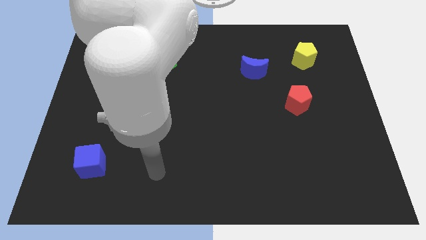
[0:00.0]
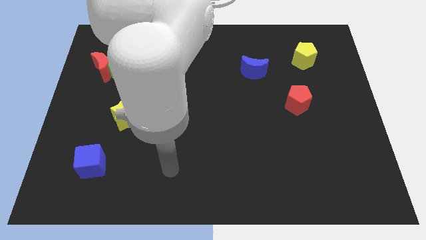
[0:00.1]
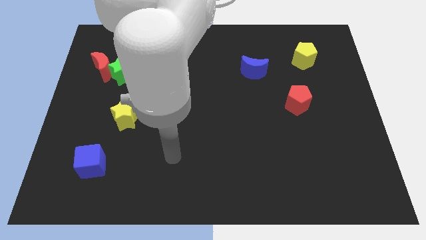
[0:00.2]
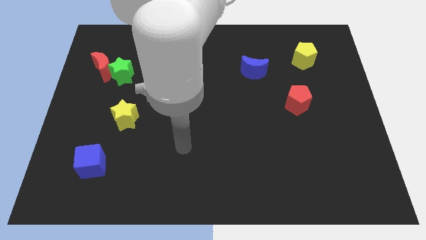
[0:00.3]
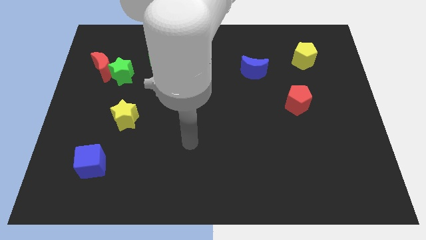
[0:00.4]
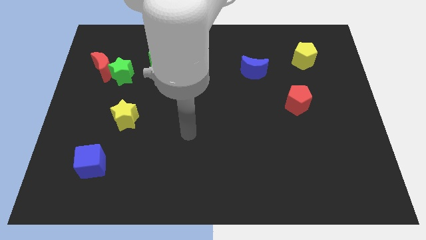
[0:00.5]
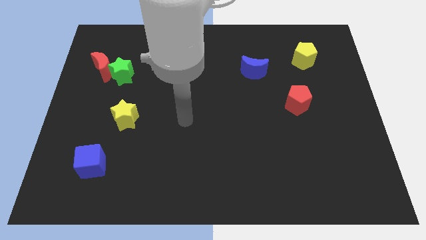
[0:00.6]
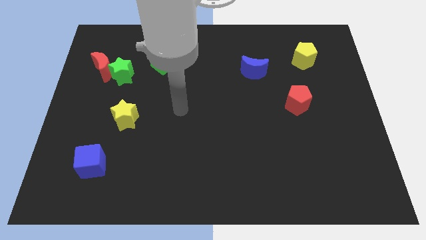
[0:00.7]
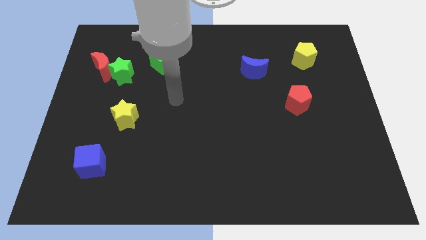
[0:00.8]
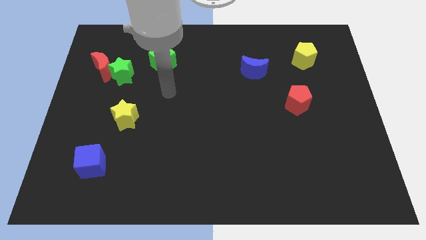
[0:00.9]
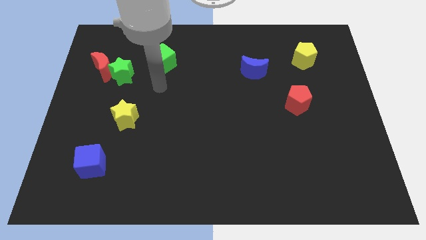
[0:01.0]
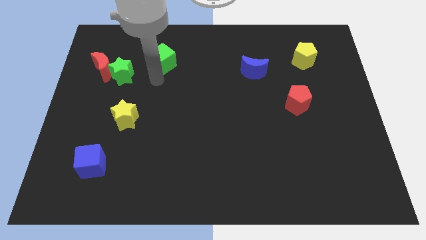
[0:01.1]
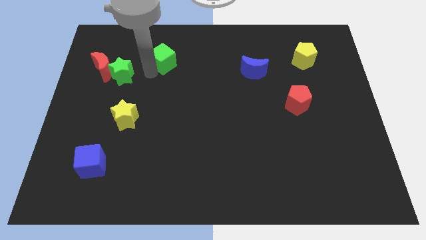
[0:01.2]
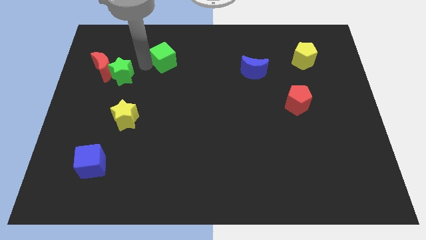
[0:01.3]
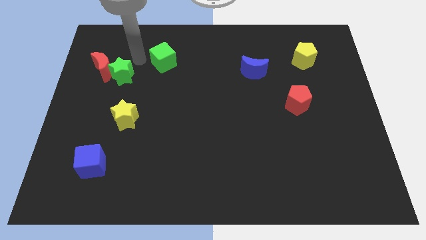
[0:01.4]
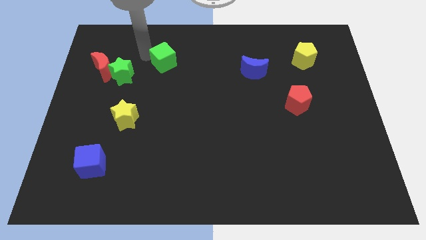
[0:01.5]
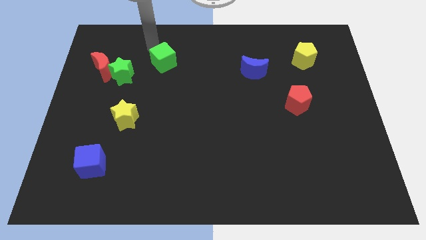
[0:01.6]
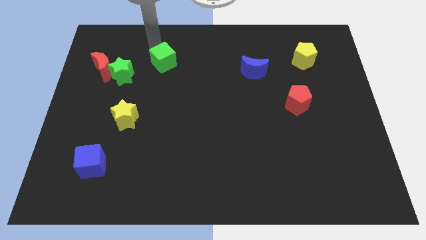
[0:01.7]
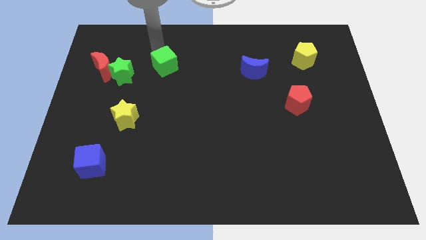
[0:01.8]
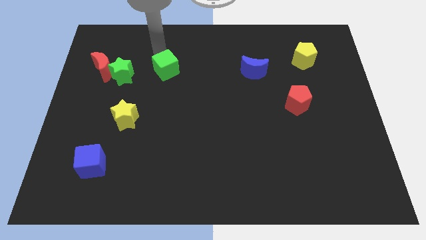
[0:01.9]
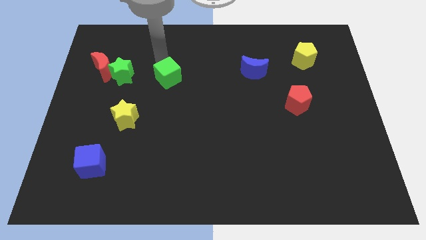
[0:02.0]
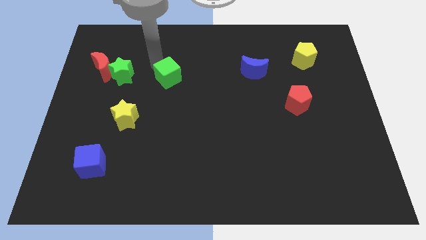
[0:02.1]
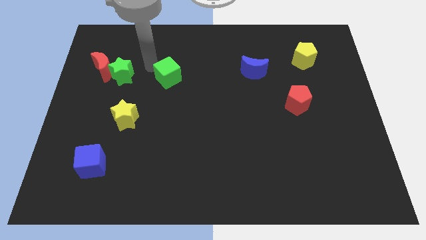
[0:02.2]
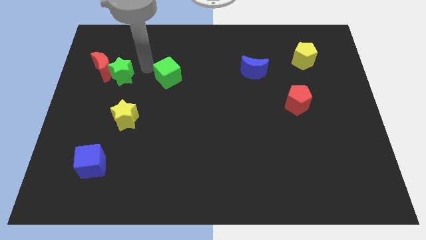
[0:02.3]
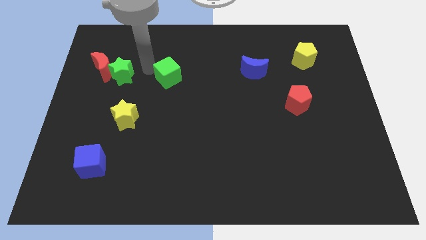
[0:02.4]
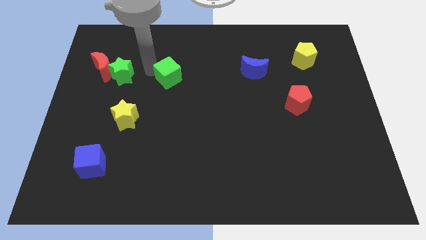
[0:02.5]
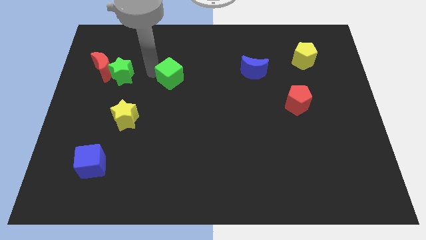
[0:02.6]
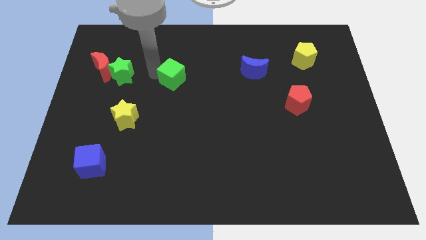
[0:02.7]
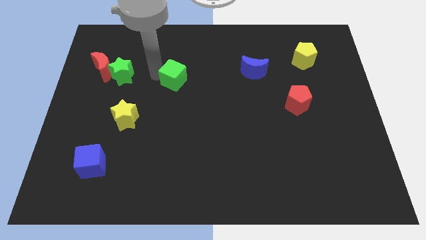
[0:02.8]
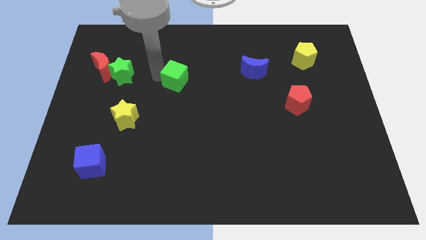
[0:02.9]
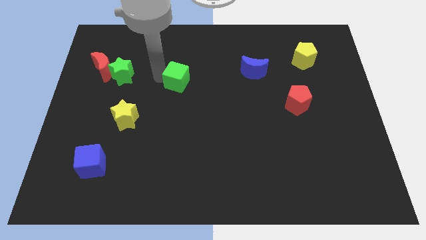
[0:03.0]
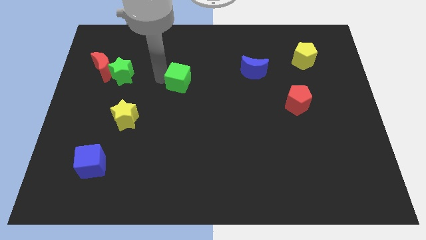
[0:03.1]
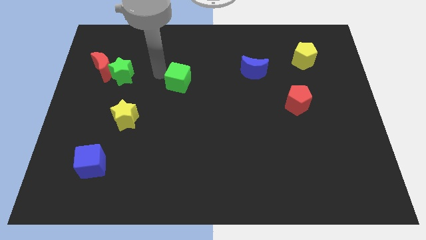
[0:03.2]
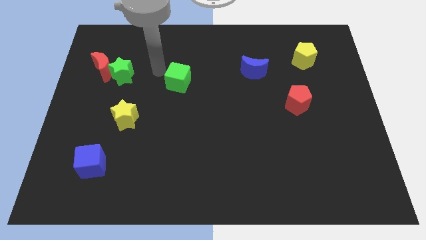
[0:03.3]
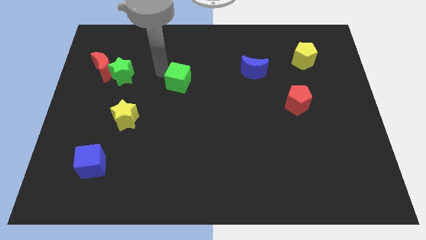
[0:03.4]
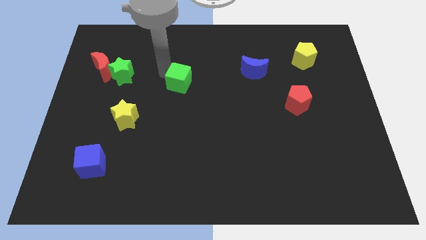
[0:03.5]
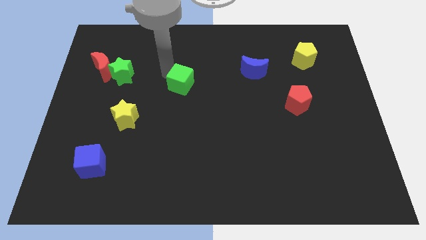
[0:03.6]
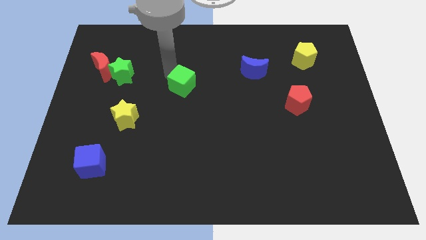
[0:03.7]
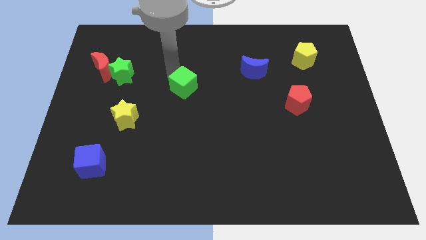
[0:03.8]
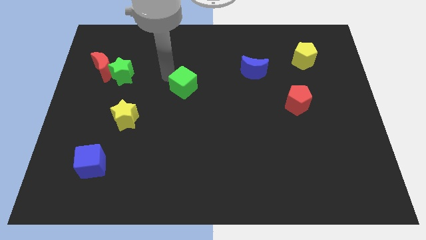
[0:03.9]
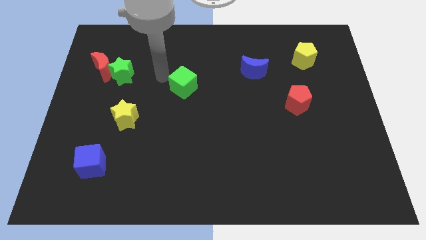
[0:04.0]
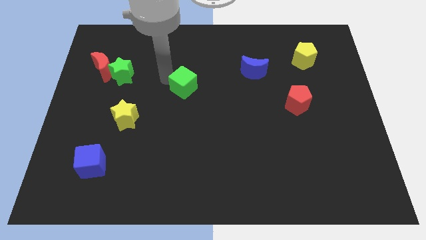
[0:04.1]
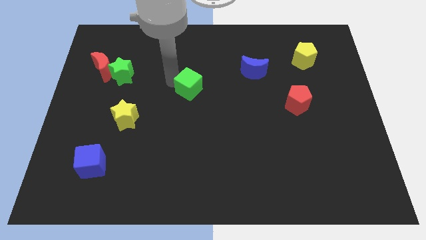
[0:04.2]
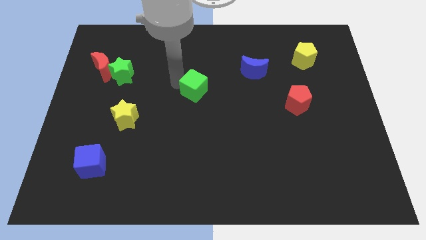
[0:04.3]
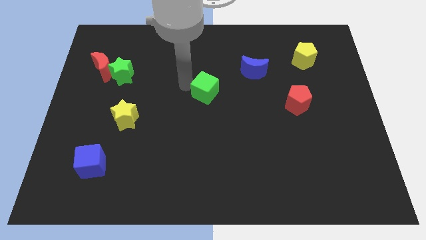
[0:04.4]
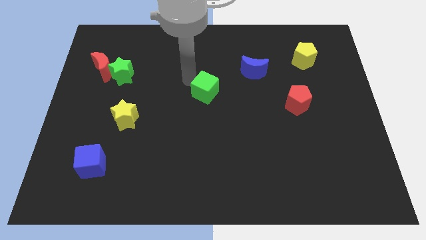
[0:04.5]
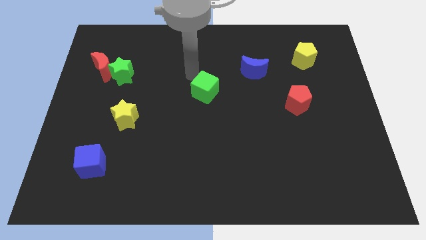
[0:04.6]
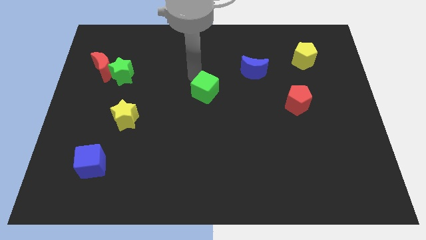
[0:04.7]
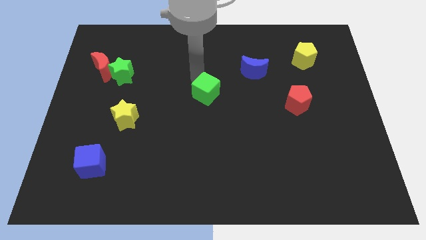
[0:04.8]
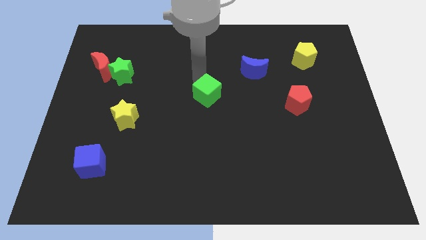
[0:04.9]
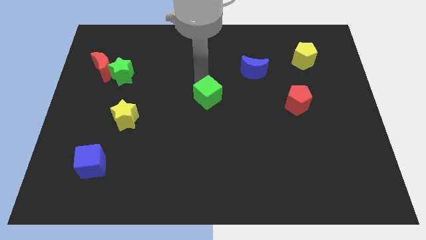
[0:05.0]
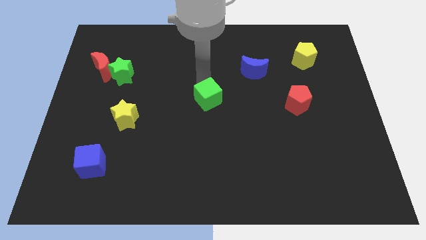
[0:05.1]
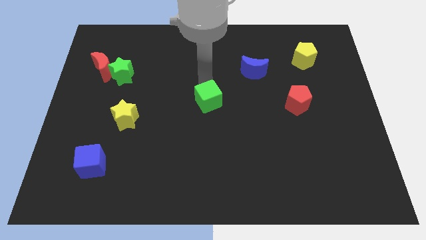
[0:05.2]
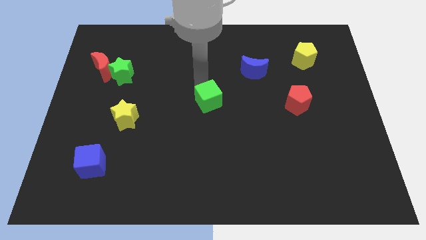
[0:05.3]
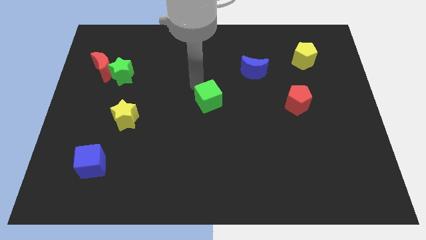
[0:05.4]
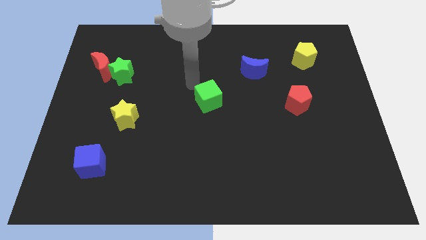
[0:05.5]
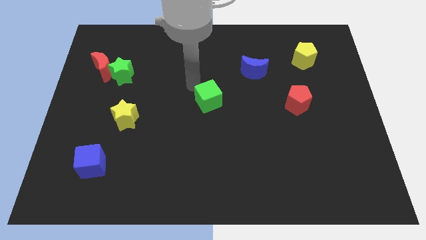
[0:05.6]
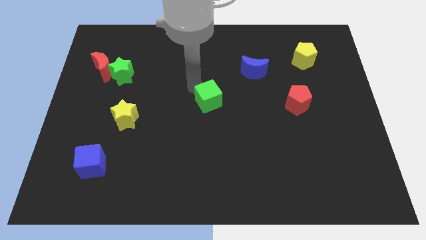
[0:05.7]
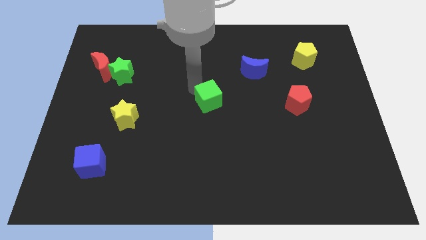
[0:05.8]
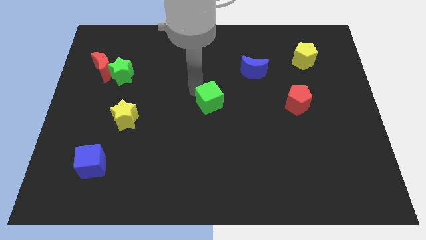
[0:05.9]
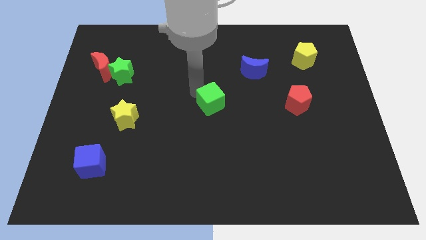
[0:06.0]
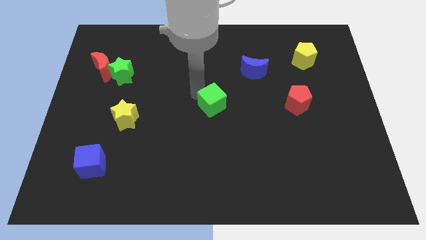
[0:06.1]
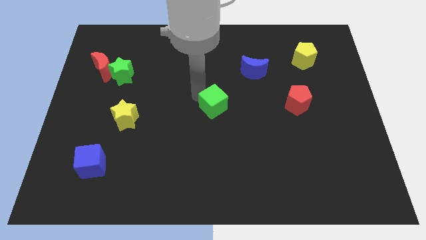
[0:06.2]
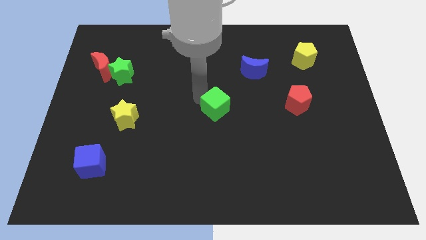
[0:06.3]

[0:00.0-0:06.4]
push the green cube down and then to the right

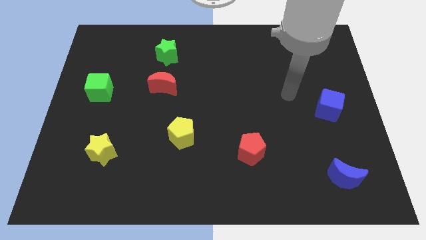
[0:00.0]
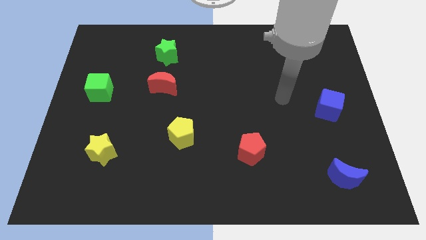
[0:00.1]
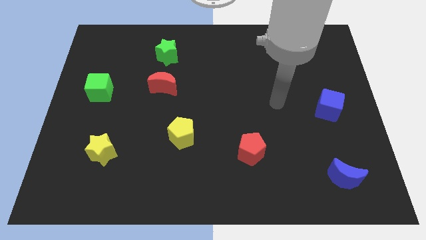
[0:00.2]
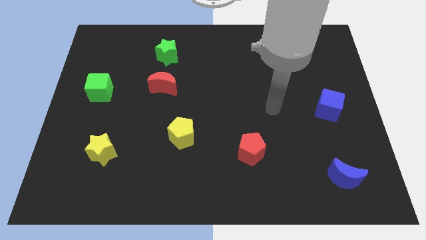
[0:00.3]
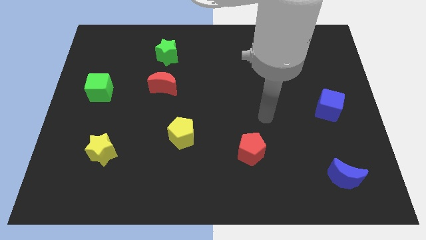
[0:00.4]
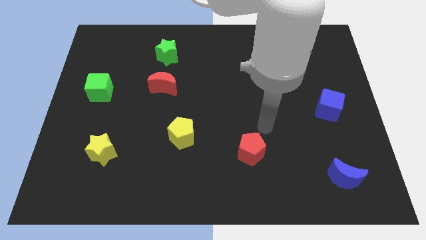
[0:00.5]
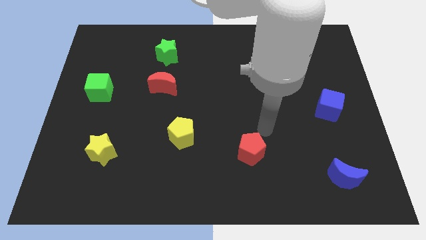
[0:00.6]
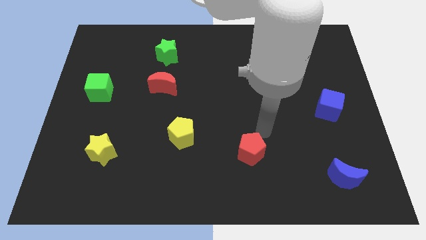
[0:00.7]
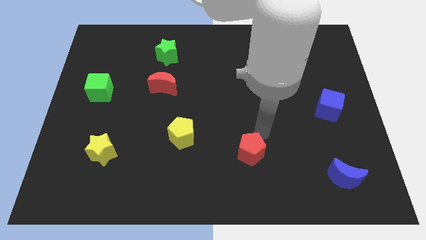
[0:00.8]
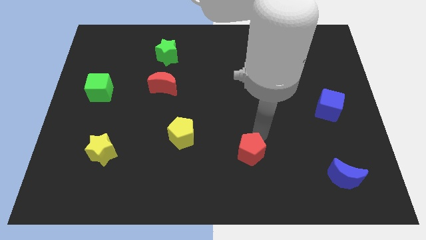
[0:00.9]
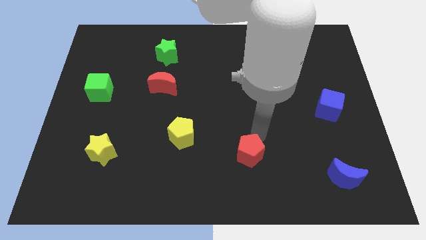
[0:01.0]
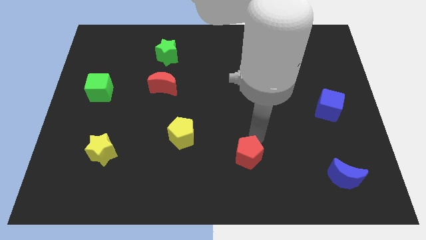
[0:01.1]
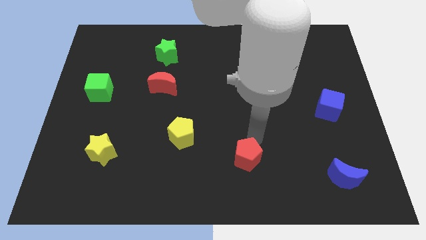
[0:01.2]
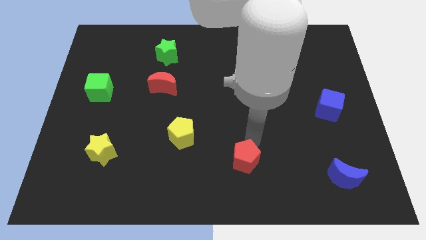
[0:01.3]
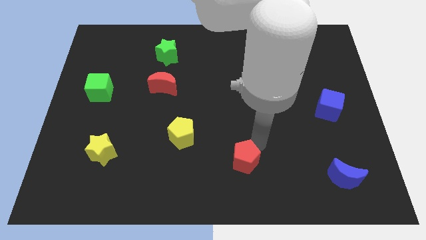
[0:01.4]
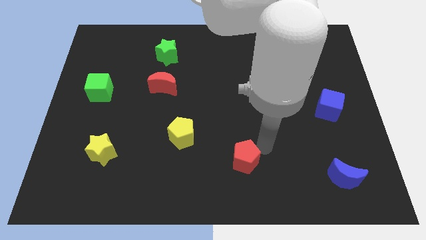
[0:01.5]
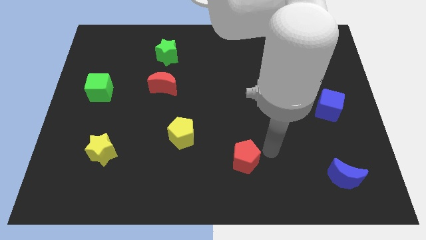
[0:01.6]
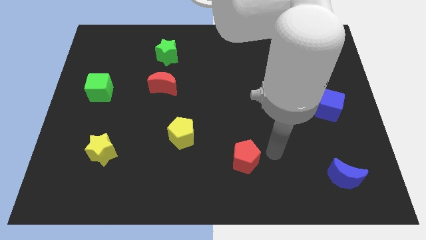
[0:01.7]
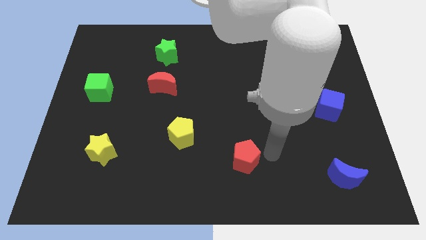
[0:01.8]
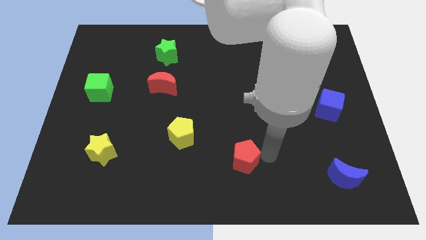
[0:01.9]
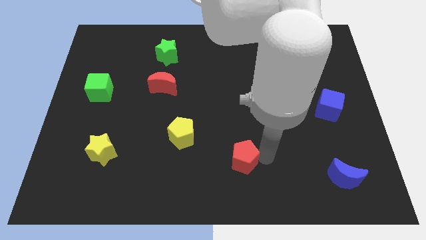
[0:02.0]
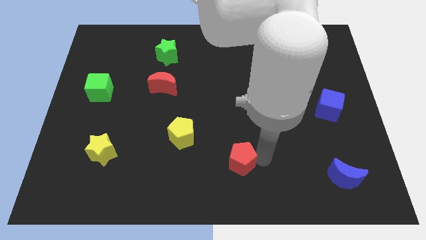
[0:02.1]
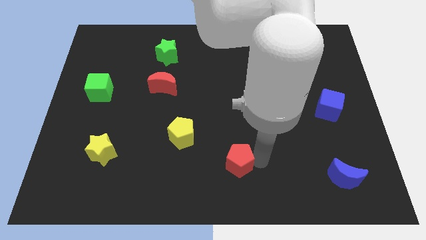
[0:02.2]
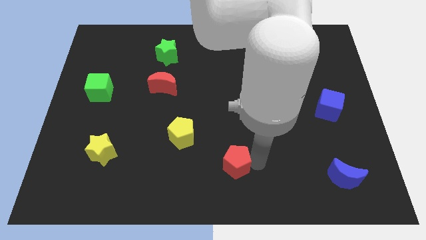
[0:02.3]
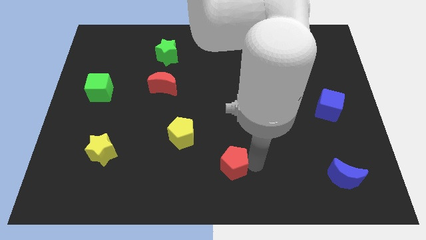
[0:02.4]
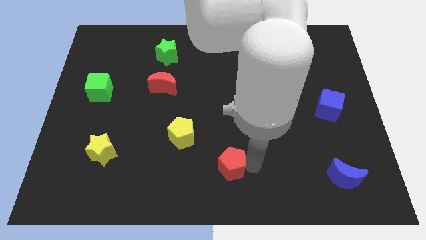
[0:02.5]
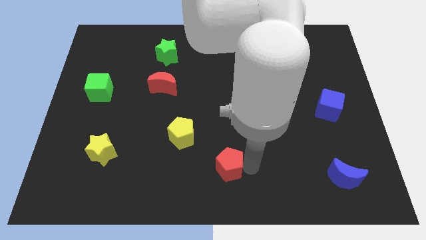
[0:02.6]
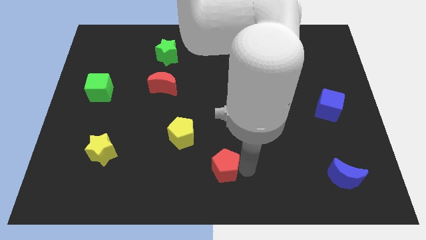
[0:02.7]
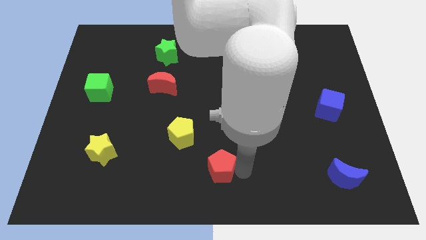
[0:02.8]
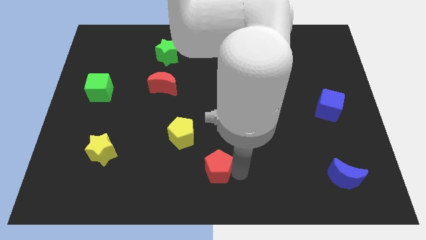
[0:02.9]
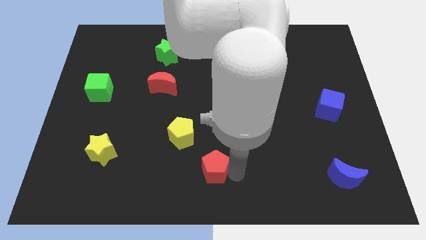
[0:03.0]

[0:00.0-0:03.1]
slide the red pentagon a little left
